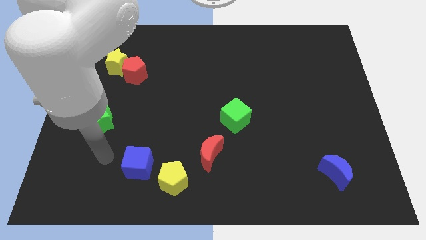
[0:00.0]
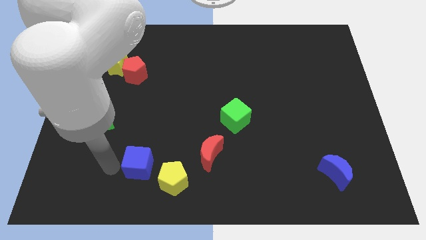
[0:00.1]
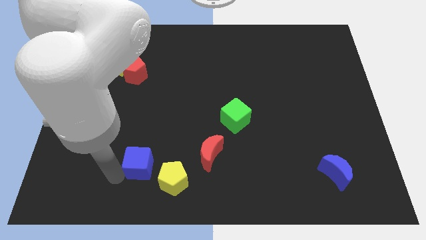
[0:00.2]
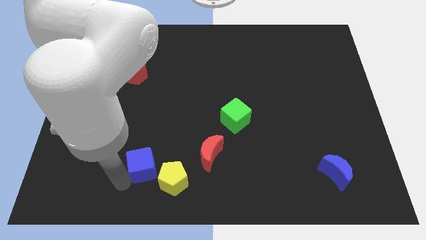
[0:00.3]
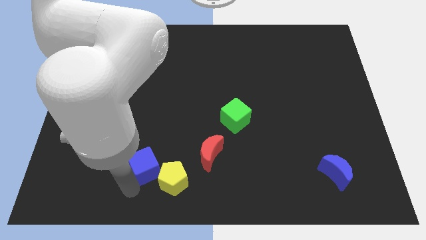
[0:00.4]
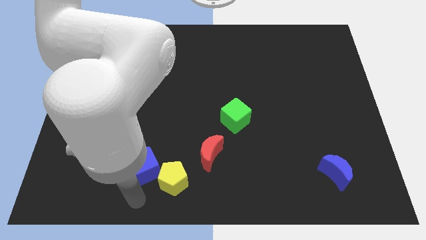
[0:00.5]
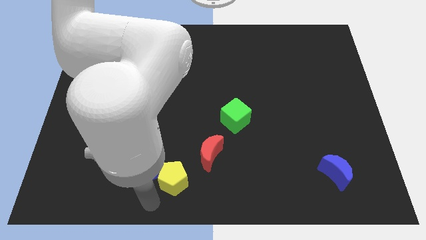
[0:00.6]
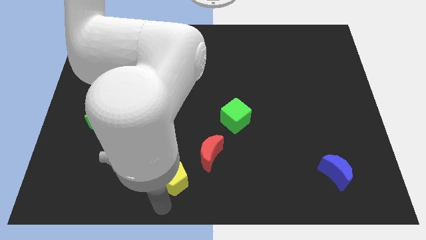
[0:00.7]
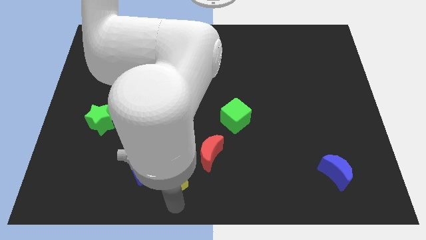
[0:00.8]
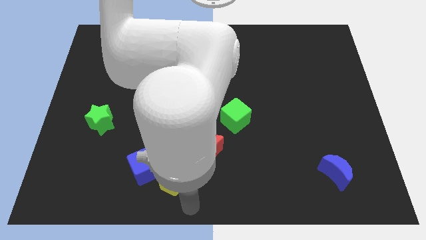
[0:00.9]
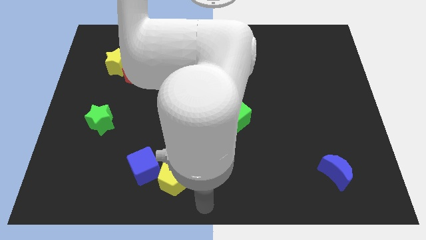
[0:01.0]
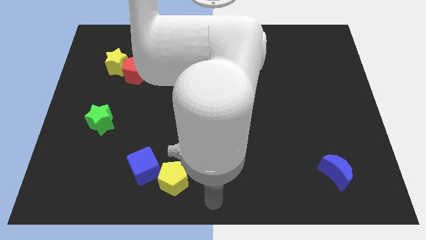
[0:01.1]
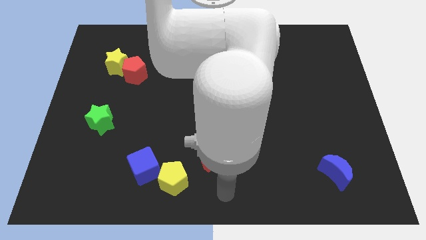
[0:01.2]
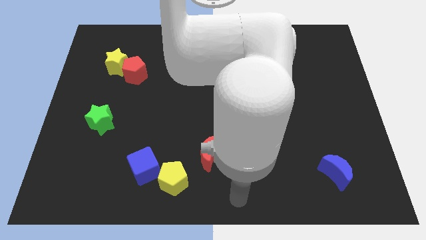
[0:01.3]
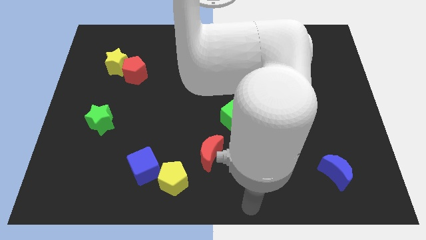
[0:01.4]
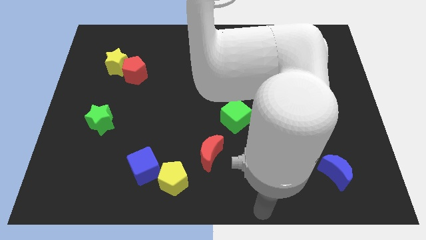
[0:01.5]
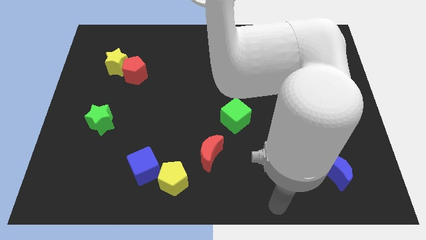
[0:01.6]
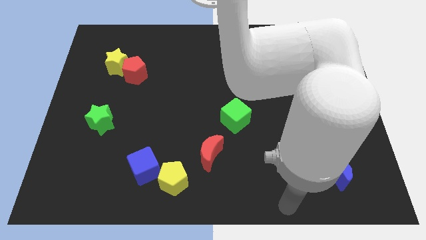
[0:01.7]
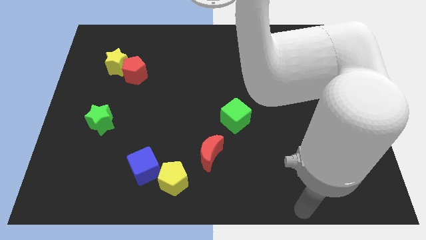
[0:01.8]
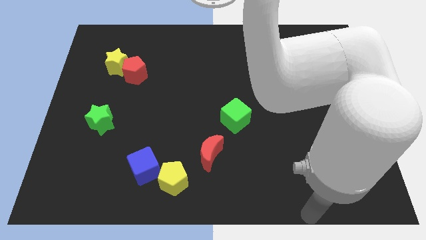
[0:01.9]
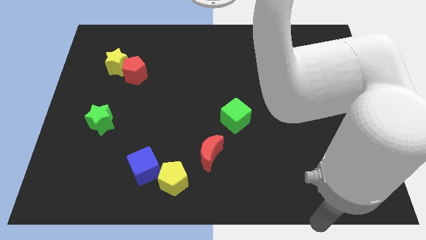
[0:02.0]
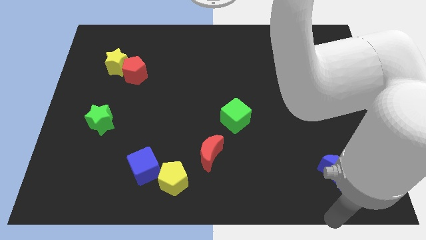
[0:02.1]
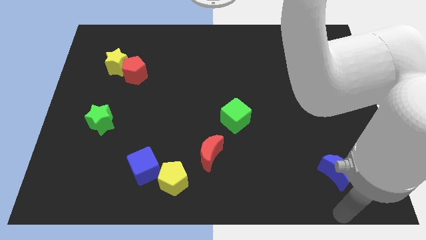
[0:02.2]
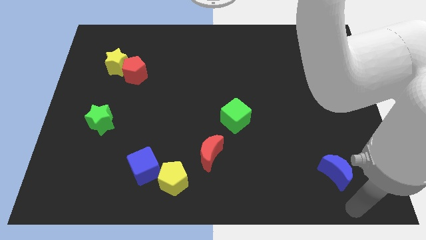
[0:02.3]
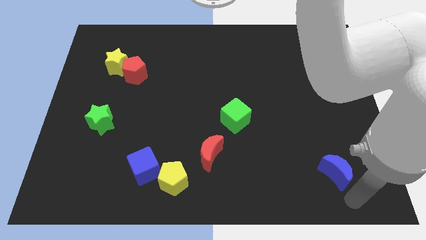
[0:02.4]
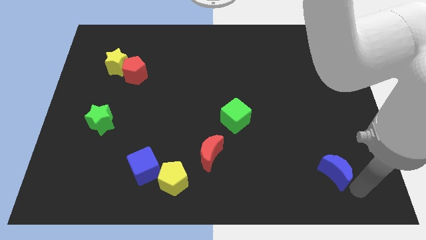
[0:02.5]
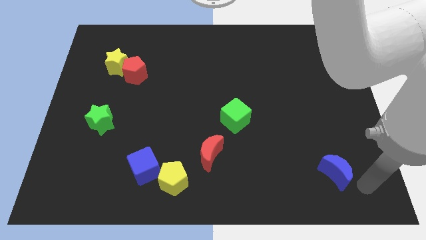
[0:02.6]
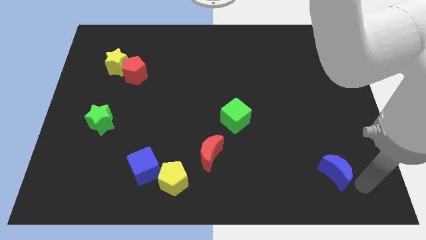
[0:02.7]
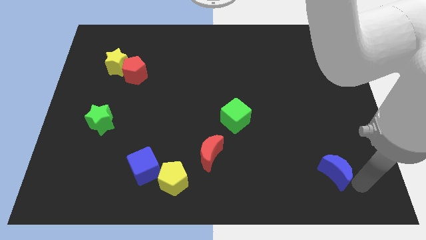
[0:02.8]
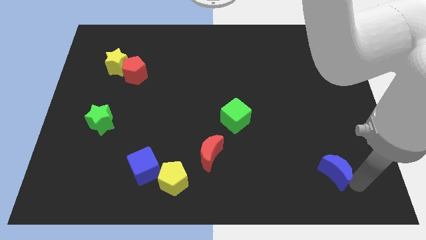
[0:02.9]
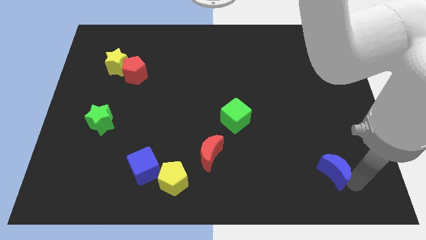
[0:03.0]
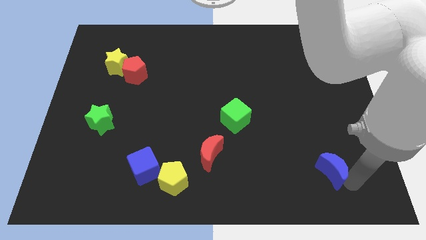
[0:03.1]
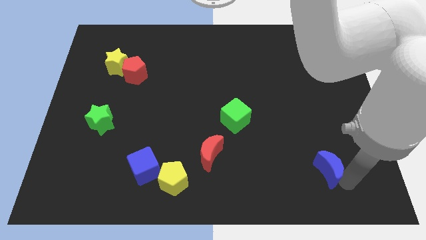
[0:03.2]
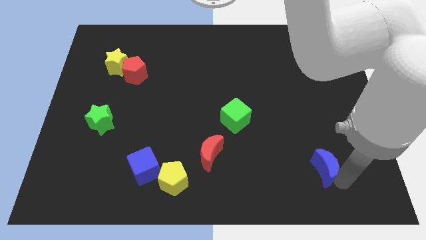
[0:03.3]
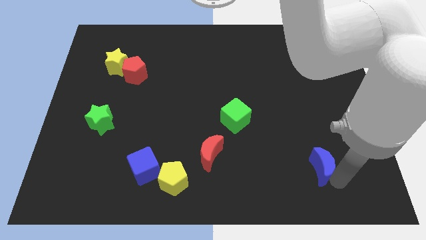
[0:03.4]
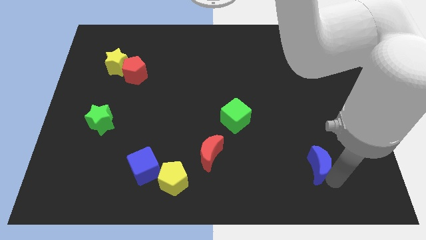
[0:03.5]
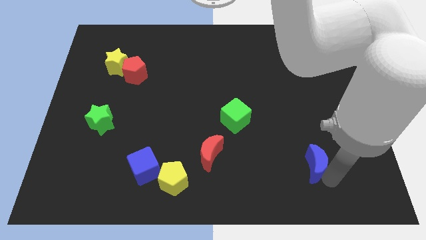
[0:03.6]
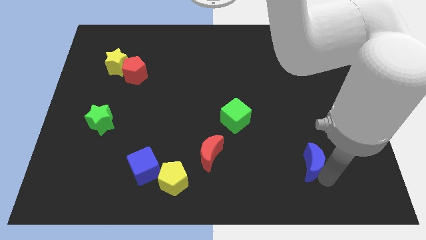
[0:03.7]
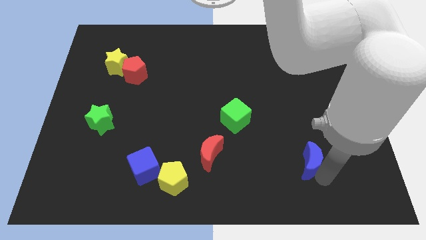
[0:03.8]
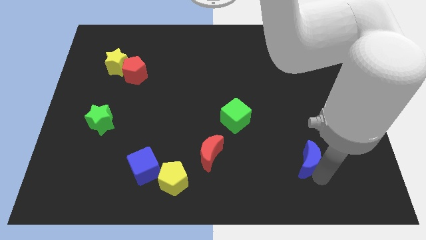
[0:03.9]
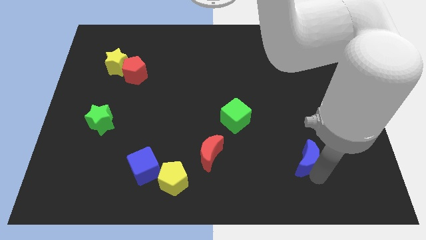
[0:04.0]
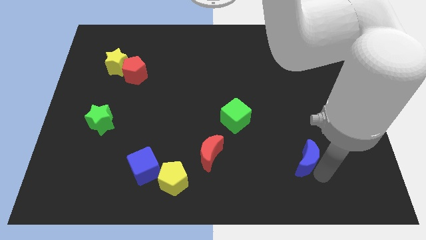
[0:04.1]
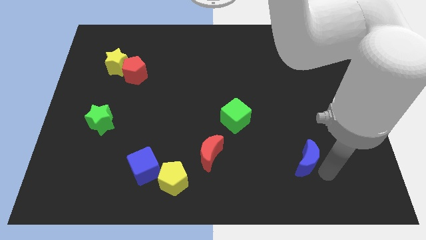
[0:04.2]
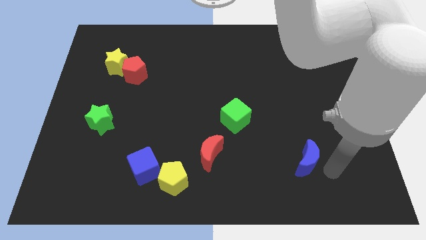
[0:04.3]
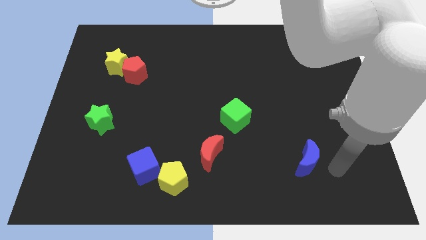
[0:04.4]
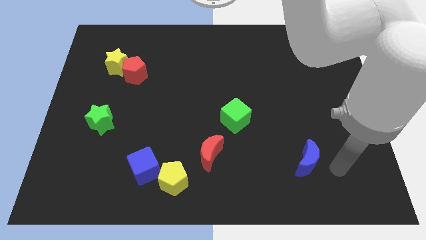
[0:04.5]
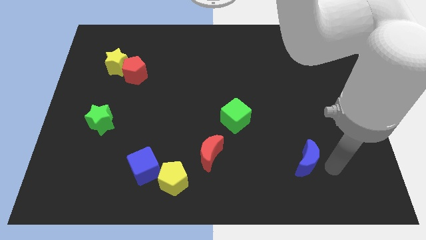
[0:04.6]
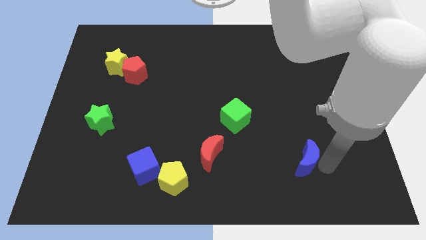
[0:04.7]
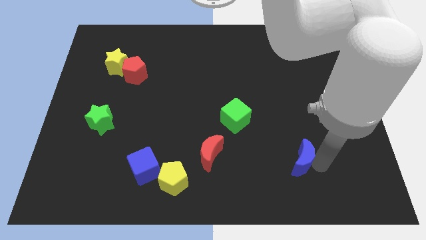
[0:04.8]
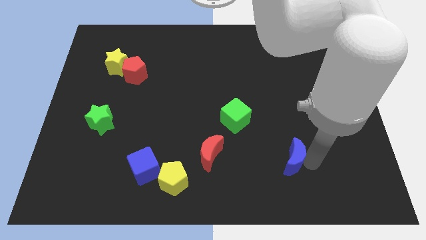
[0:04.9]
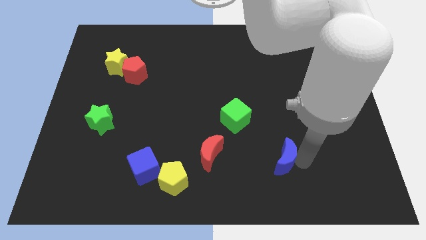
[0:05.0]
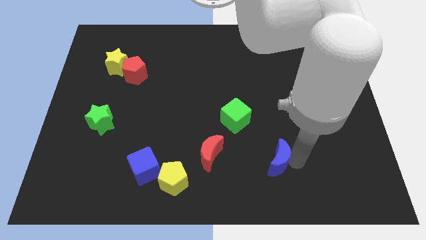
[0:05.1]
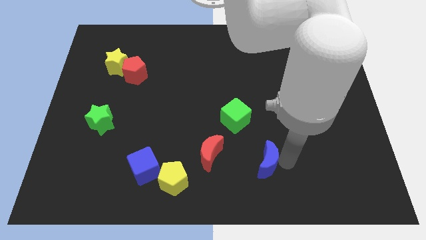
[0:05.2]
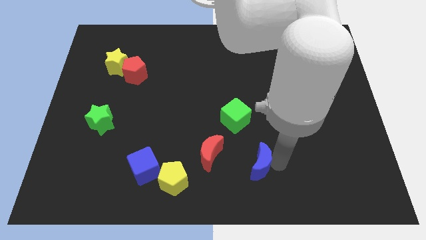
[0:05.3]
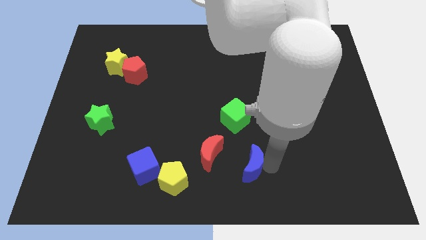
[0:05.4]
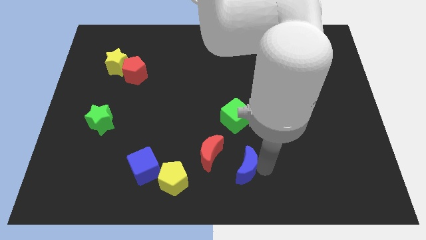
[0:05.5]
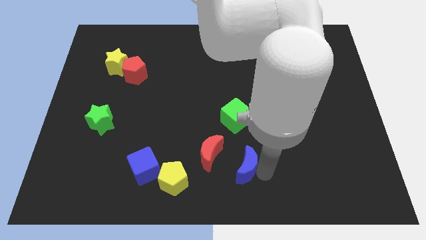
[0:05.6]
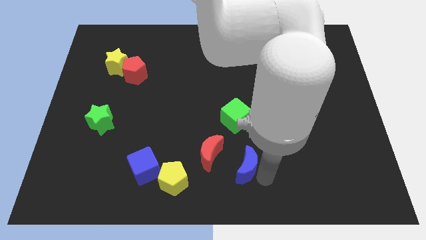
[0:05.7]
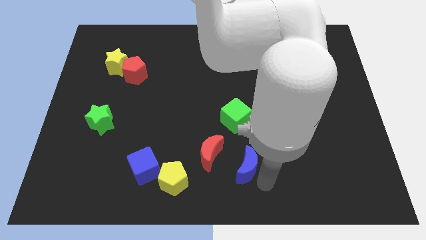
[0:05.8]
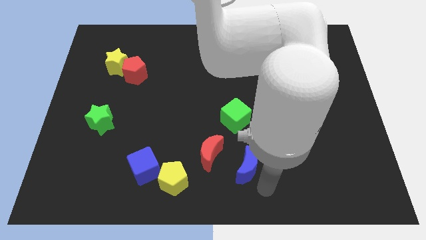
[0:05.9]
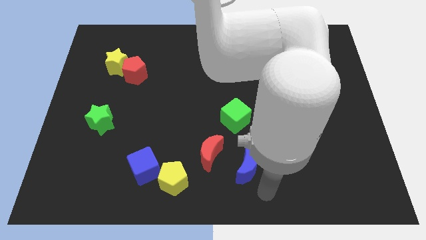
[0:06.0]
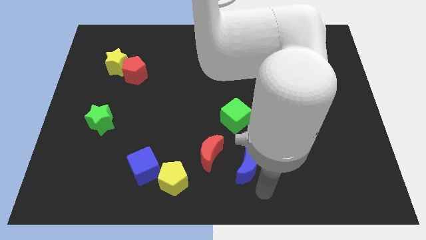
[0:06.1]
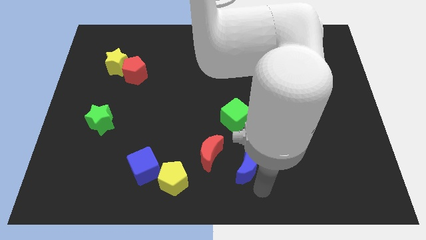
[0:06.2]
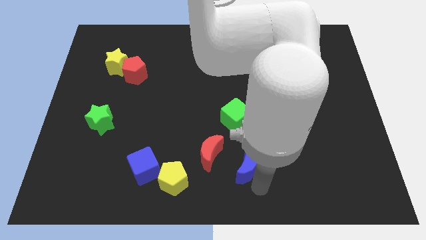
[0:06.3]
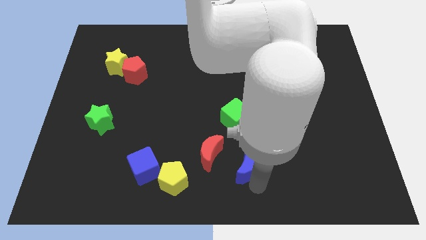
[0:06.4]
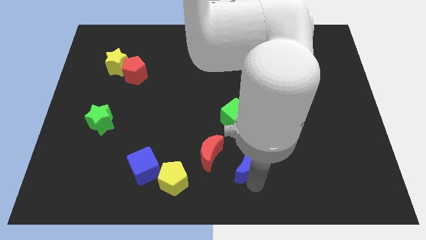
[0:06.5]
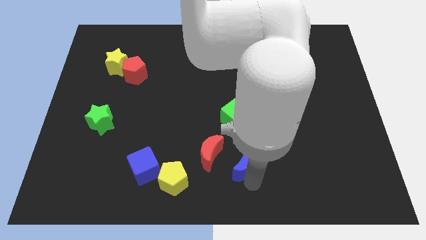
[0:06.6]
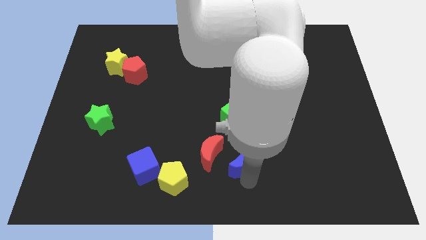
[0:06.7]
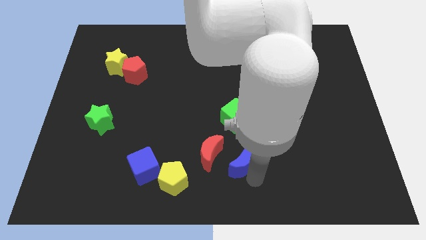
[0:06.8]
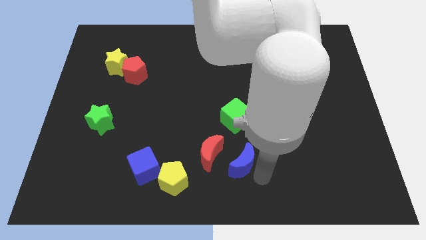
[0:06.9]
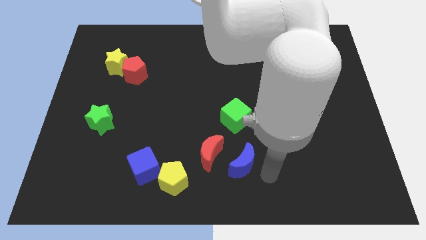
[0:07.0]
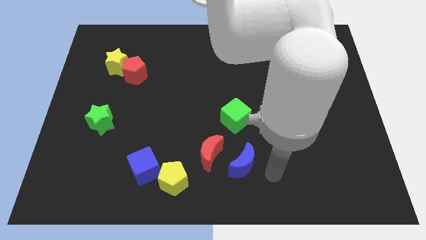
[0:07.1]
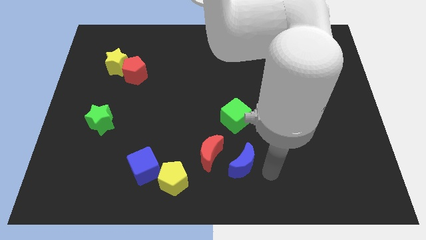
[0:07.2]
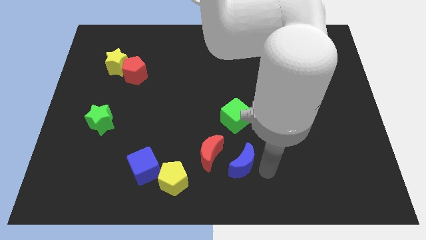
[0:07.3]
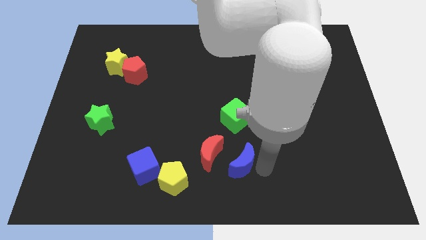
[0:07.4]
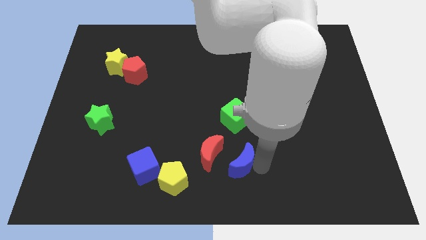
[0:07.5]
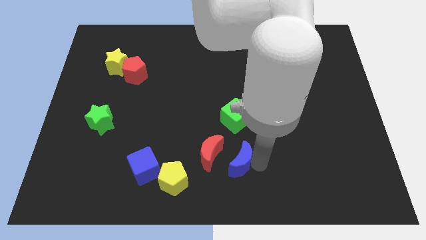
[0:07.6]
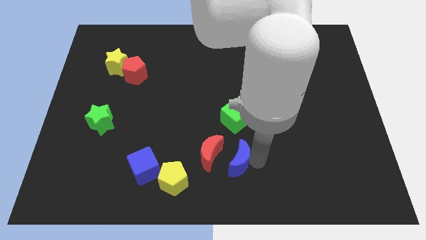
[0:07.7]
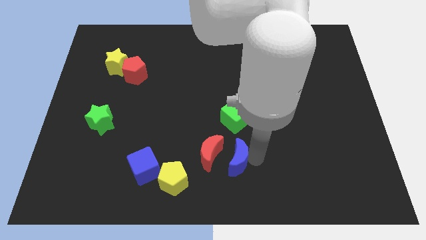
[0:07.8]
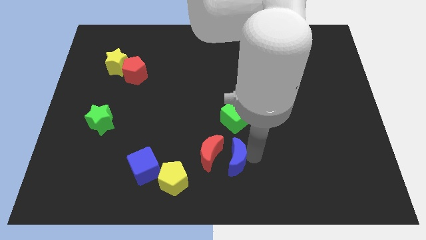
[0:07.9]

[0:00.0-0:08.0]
move the blue moon next to the red moon
